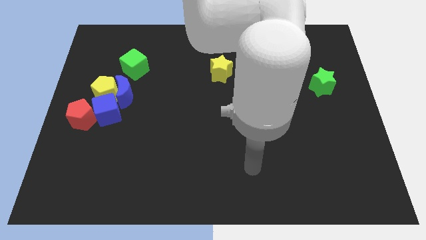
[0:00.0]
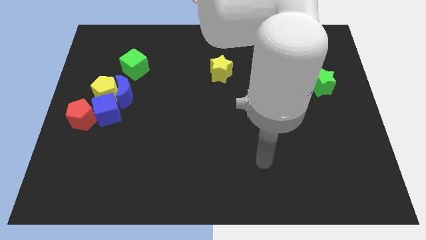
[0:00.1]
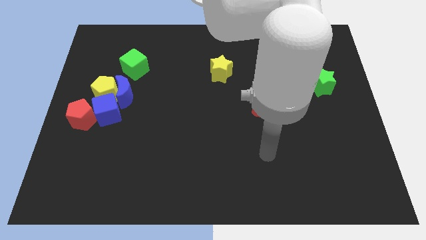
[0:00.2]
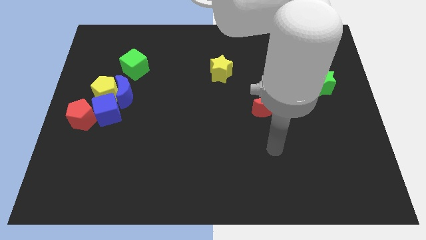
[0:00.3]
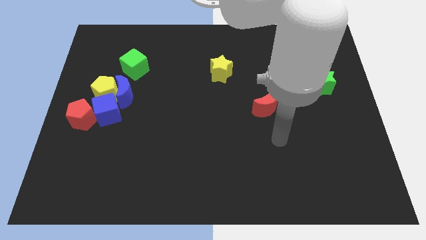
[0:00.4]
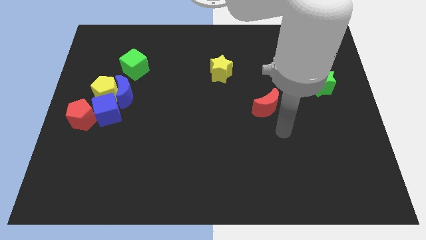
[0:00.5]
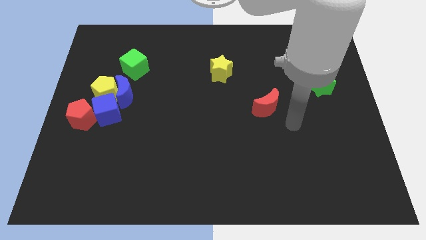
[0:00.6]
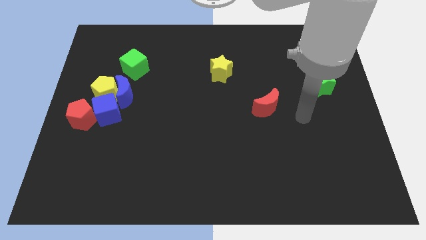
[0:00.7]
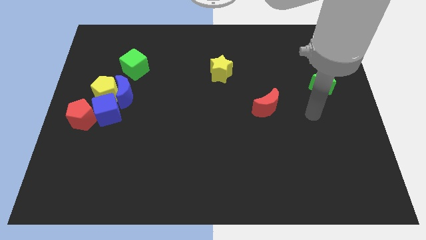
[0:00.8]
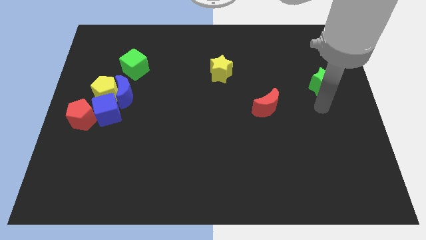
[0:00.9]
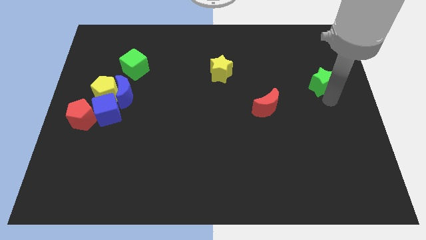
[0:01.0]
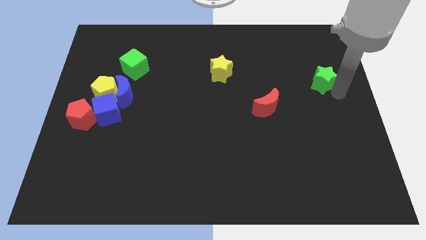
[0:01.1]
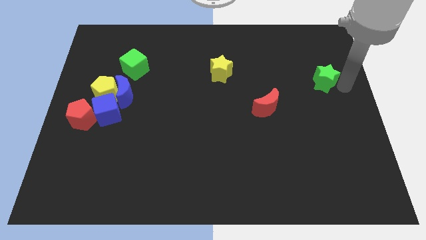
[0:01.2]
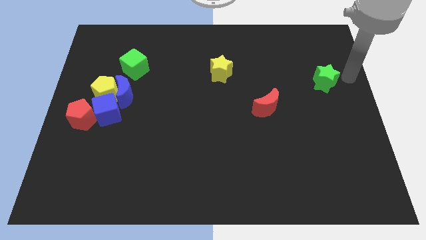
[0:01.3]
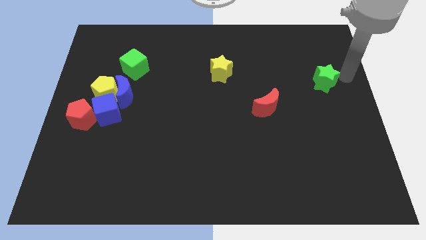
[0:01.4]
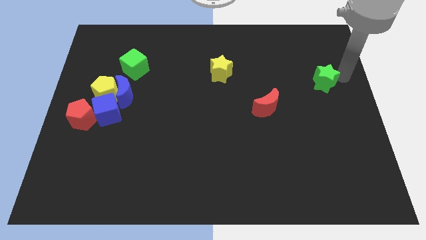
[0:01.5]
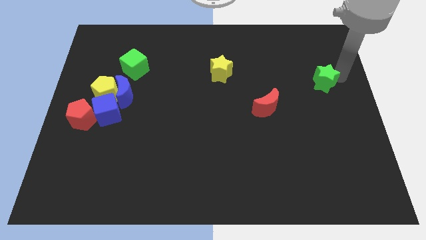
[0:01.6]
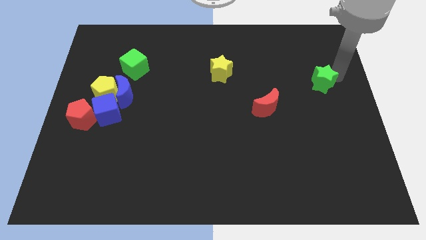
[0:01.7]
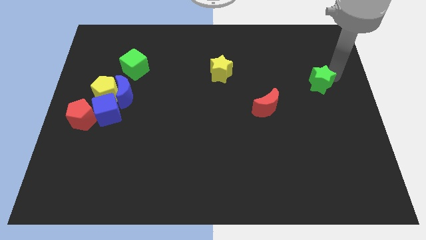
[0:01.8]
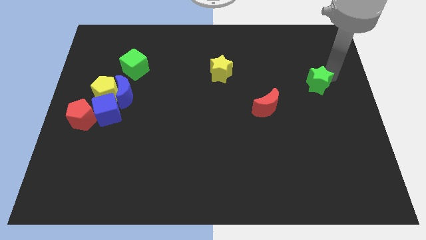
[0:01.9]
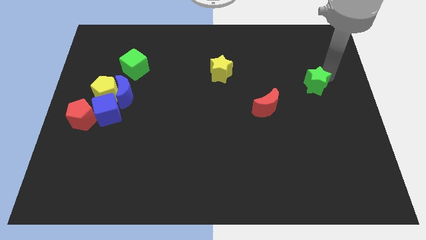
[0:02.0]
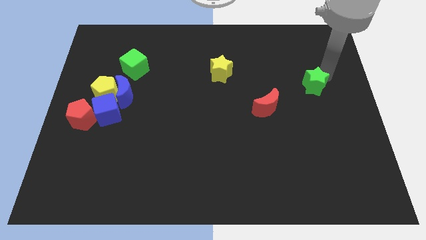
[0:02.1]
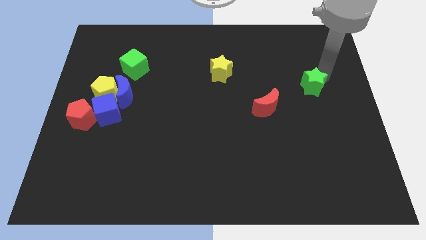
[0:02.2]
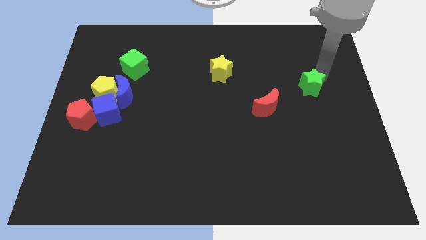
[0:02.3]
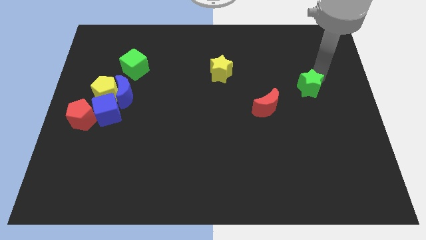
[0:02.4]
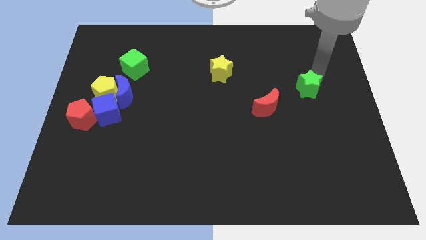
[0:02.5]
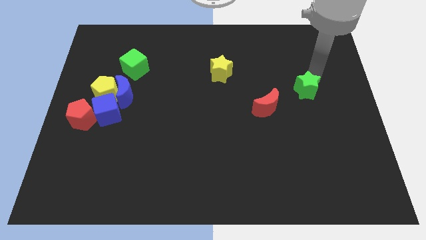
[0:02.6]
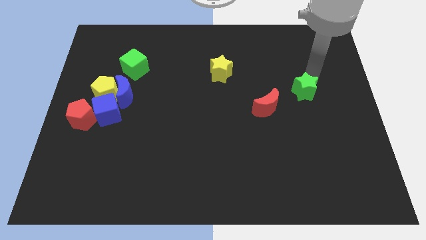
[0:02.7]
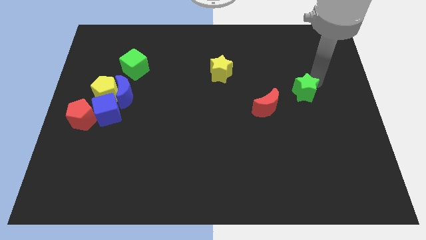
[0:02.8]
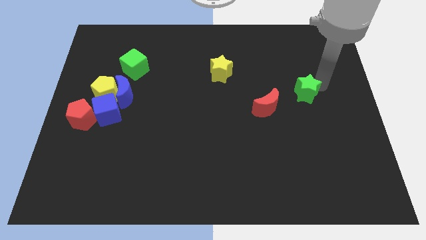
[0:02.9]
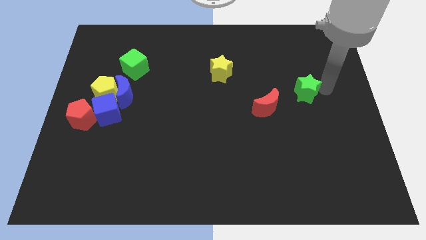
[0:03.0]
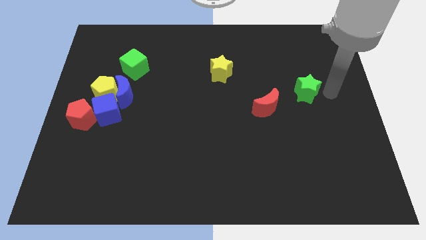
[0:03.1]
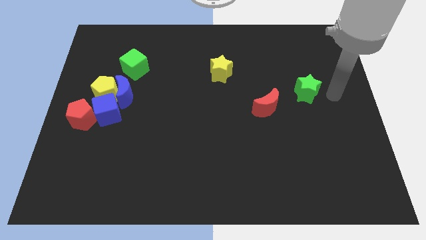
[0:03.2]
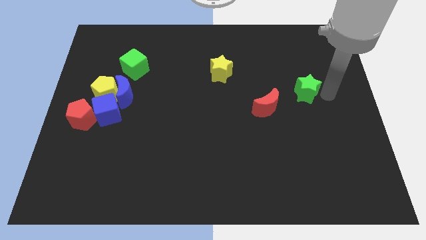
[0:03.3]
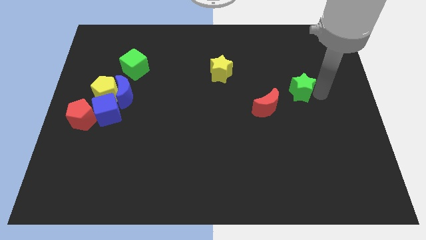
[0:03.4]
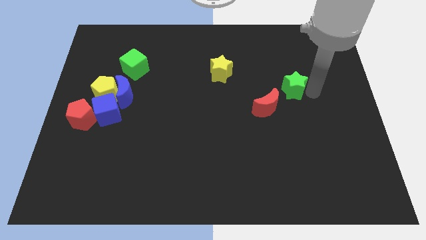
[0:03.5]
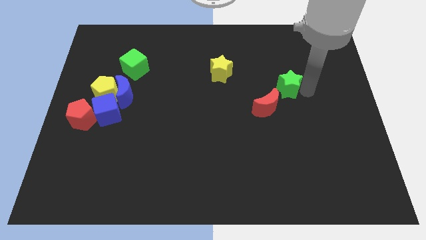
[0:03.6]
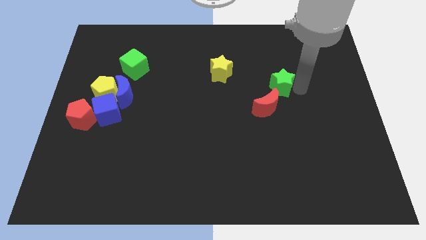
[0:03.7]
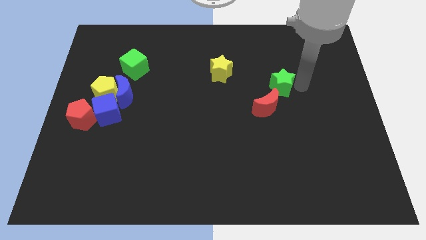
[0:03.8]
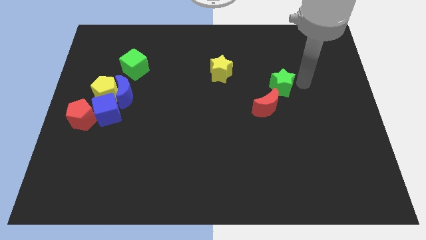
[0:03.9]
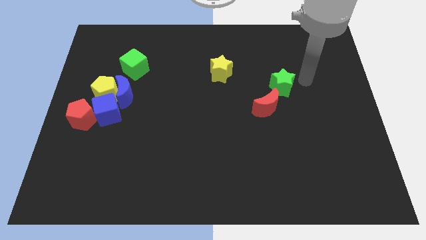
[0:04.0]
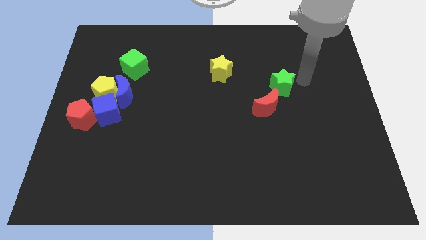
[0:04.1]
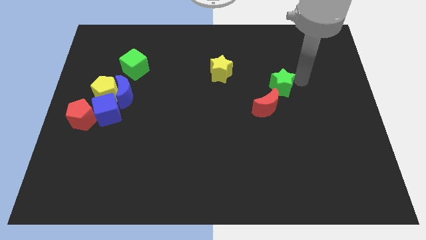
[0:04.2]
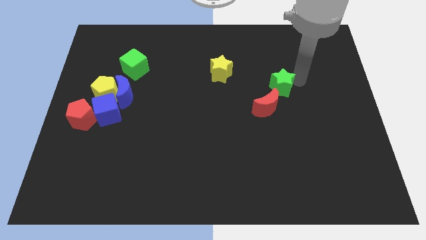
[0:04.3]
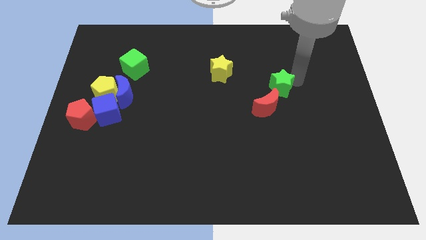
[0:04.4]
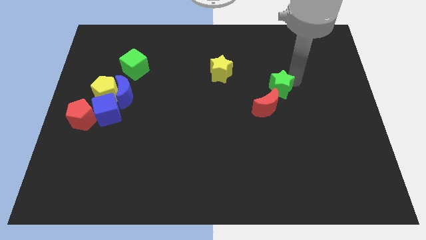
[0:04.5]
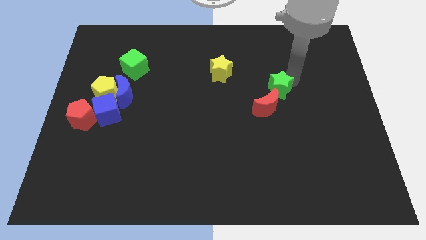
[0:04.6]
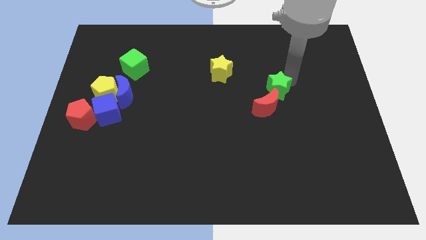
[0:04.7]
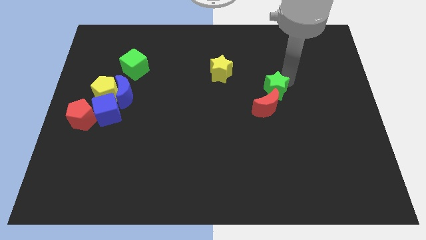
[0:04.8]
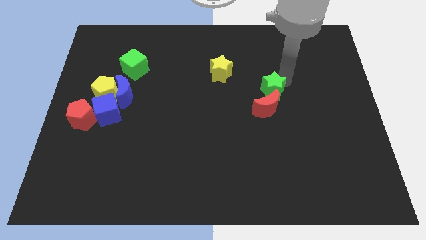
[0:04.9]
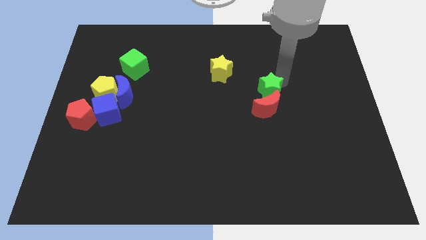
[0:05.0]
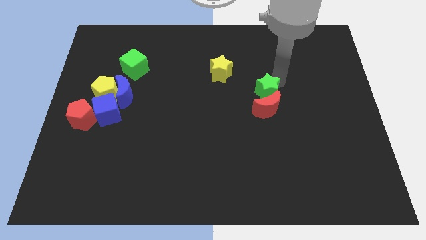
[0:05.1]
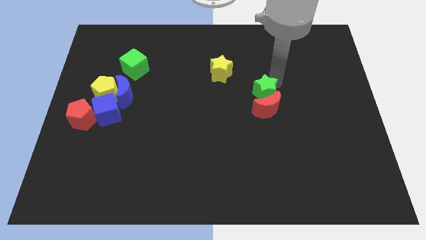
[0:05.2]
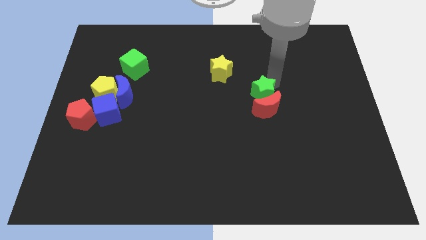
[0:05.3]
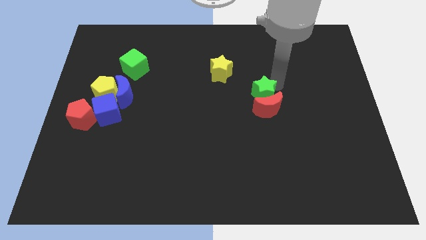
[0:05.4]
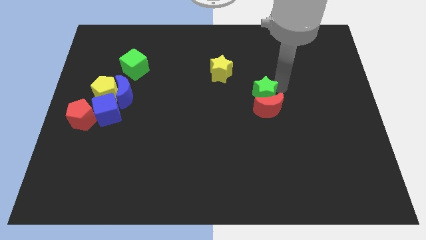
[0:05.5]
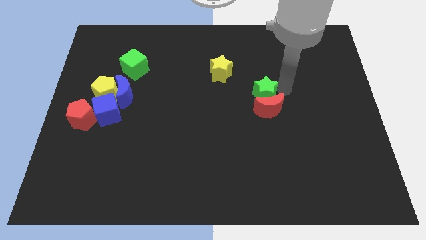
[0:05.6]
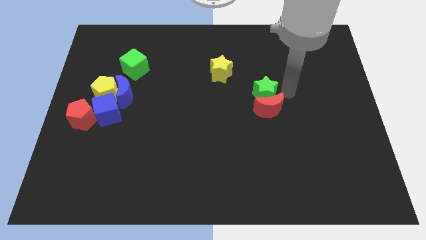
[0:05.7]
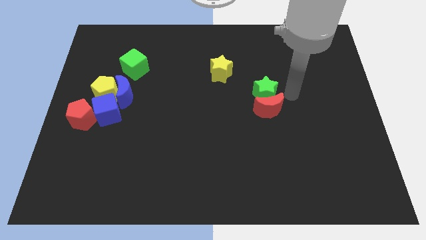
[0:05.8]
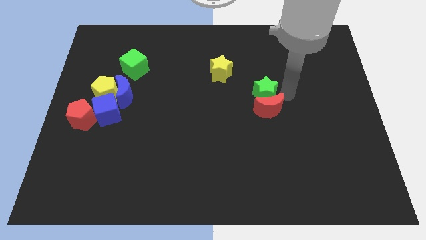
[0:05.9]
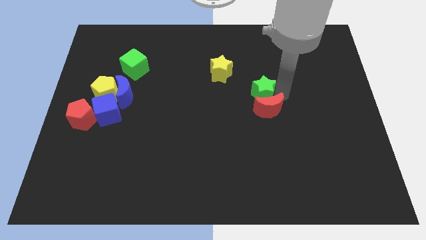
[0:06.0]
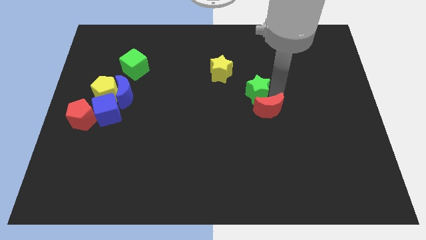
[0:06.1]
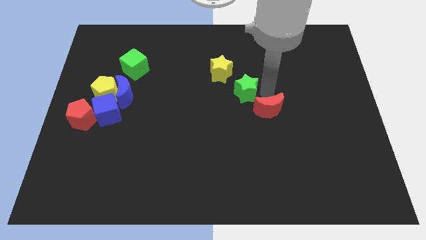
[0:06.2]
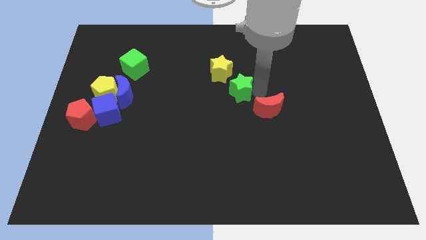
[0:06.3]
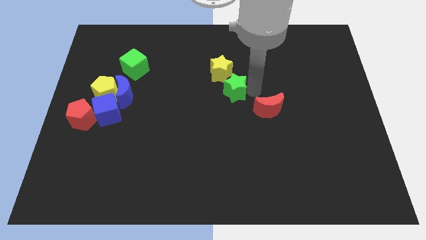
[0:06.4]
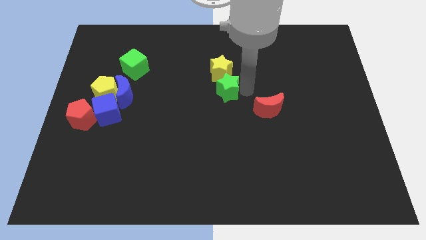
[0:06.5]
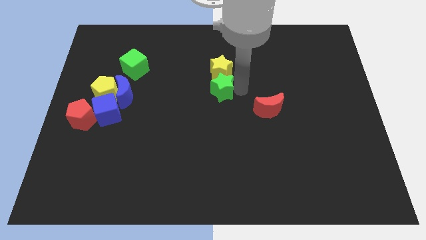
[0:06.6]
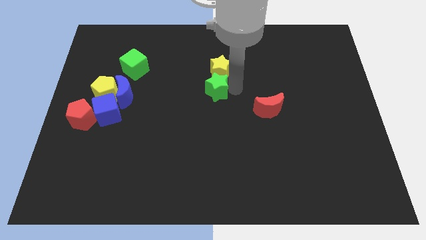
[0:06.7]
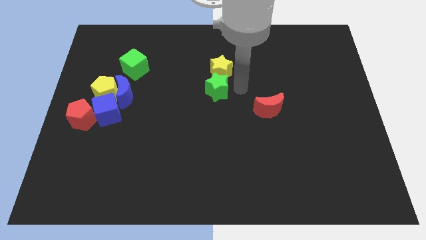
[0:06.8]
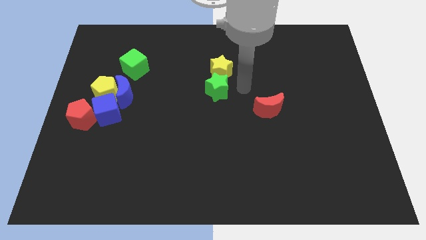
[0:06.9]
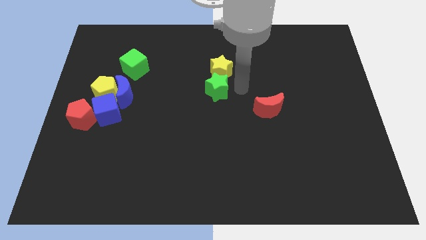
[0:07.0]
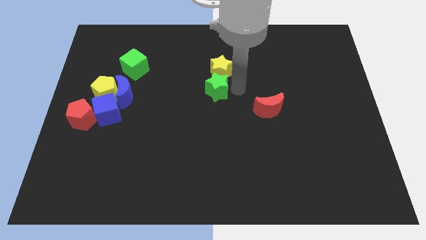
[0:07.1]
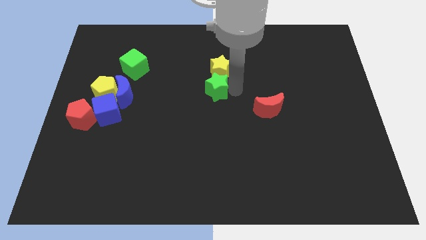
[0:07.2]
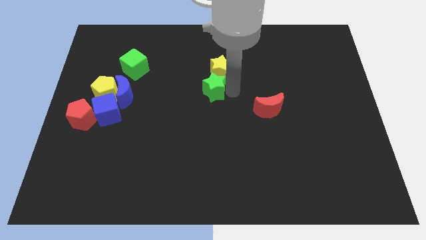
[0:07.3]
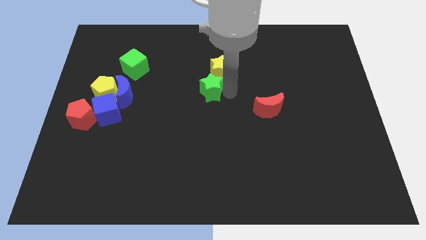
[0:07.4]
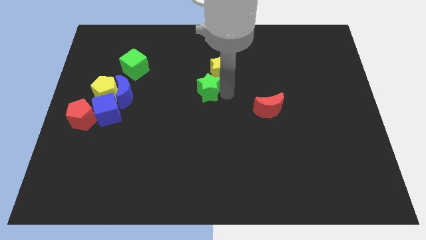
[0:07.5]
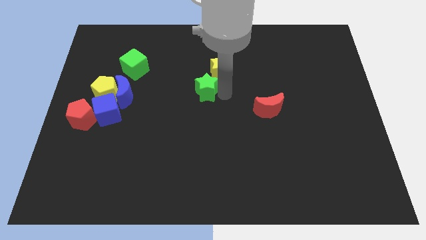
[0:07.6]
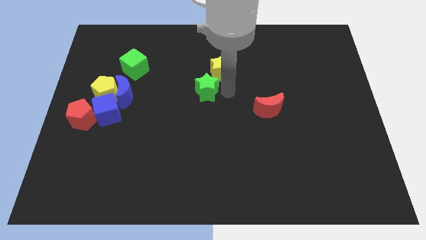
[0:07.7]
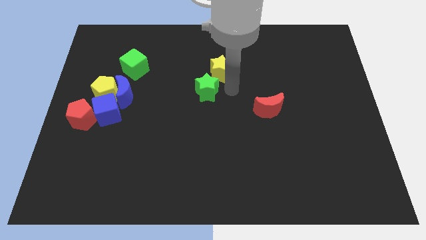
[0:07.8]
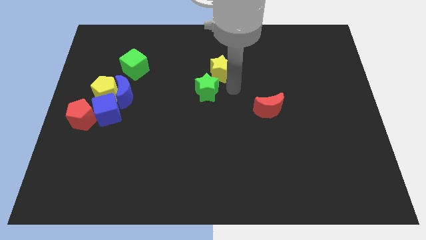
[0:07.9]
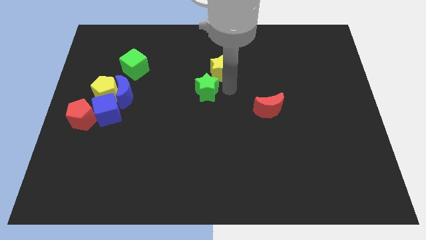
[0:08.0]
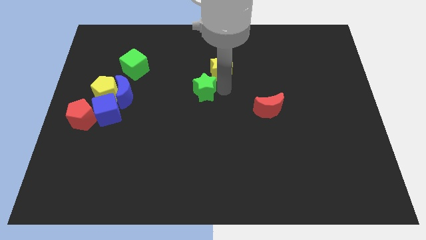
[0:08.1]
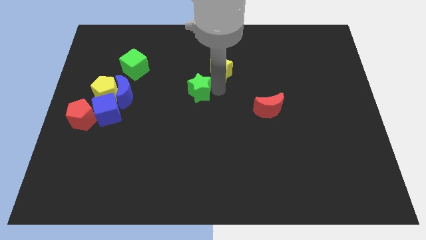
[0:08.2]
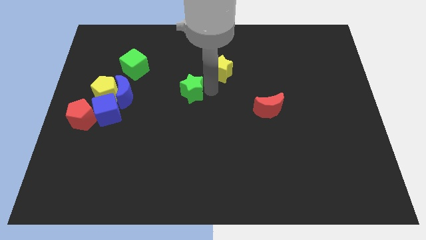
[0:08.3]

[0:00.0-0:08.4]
slide the green star right of the blue moon
